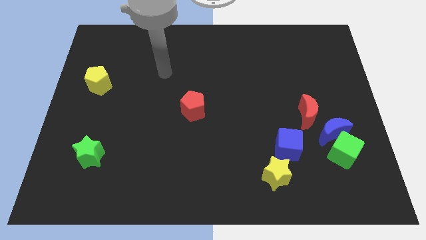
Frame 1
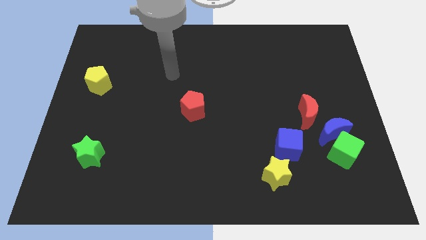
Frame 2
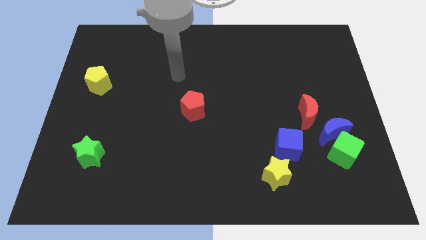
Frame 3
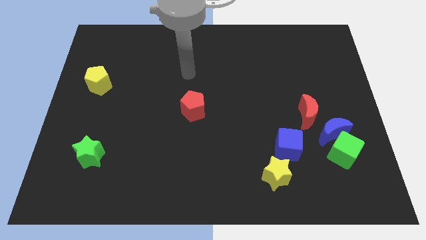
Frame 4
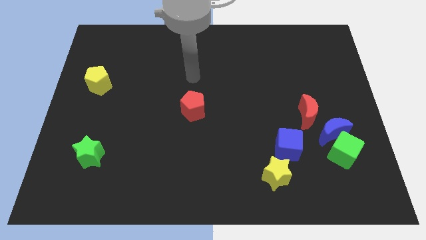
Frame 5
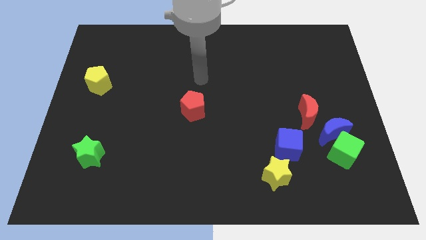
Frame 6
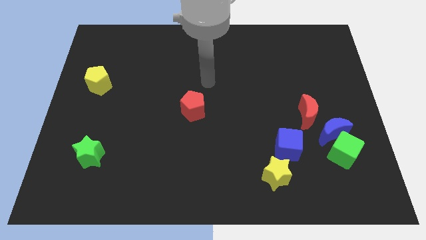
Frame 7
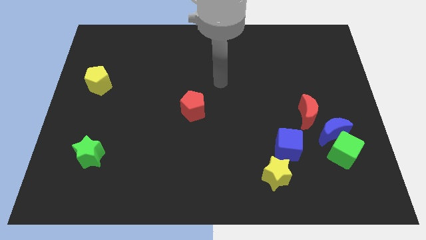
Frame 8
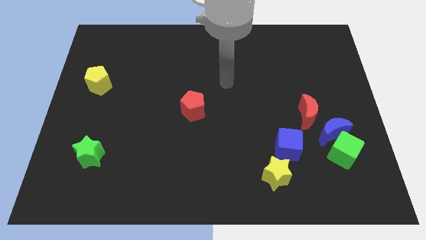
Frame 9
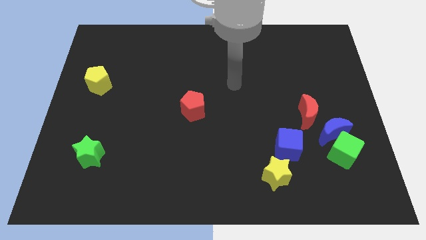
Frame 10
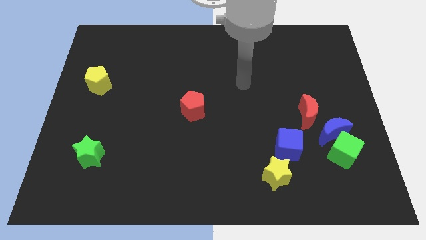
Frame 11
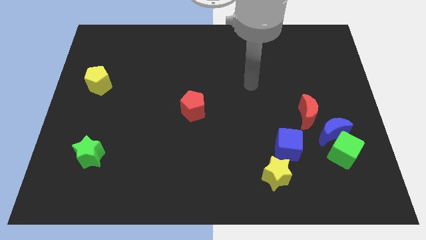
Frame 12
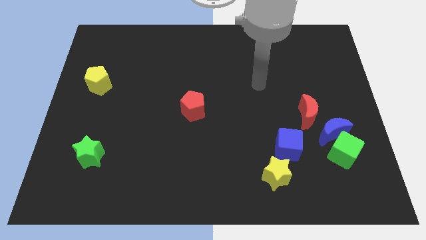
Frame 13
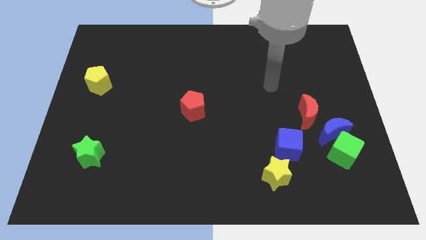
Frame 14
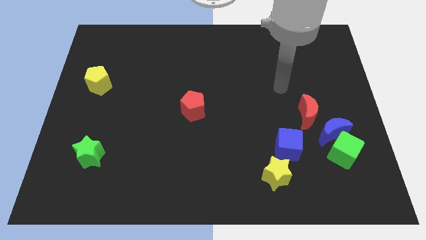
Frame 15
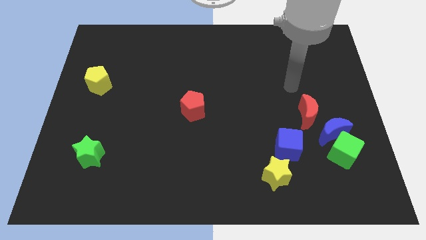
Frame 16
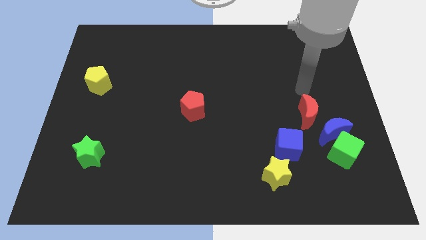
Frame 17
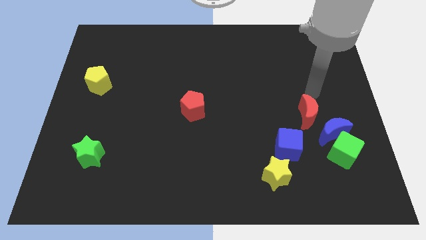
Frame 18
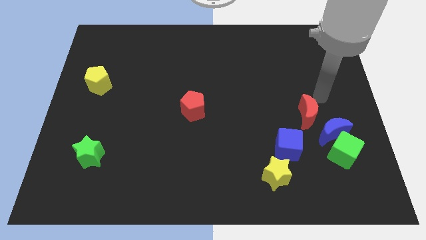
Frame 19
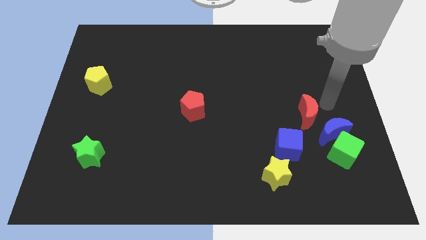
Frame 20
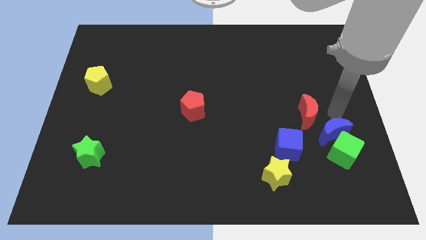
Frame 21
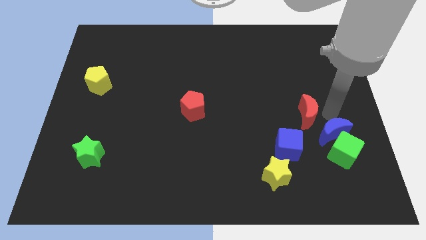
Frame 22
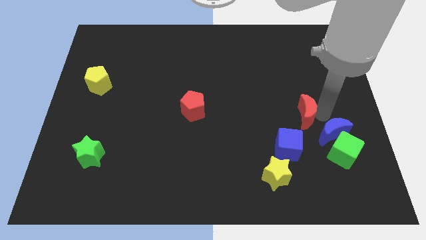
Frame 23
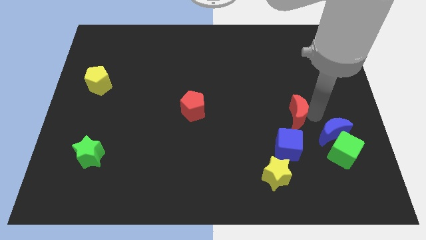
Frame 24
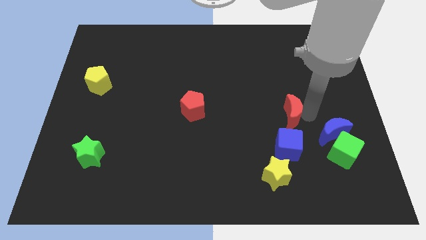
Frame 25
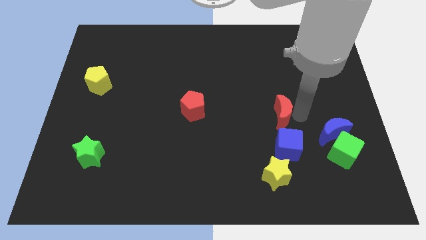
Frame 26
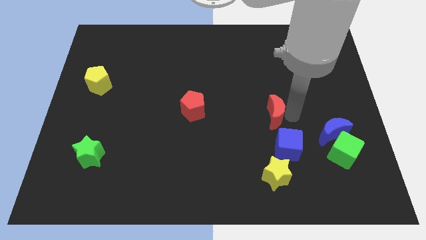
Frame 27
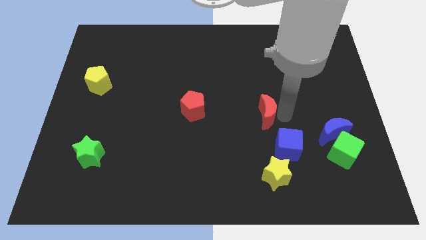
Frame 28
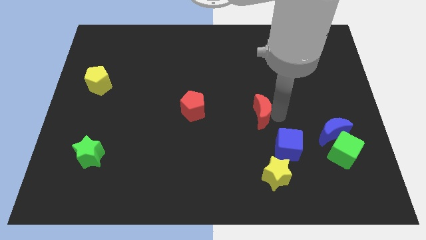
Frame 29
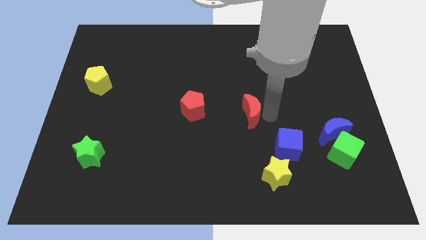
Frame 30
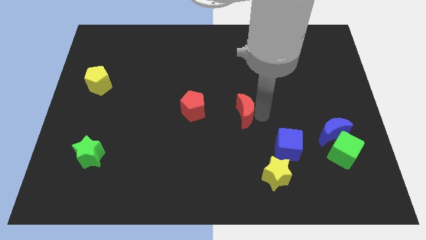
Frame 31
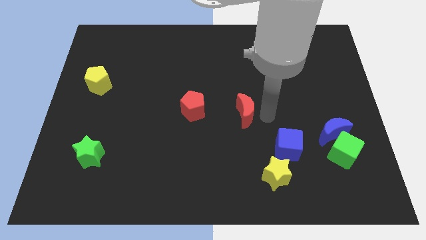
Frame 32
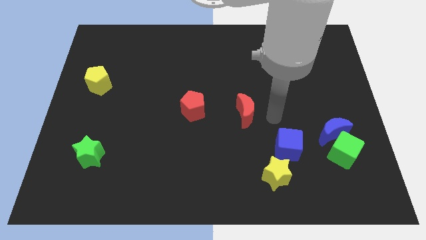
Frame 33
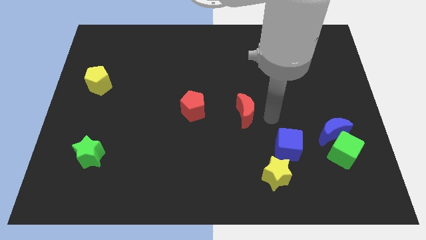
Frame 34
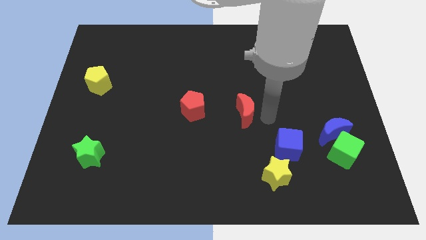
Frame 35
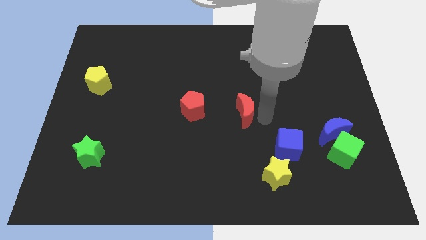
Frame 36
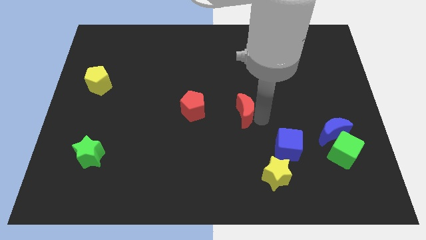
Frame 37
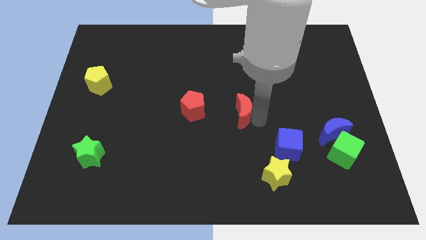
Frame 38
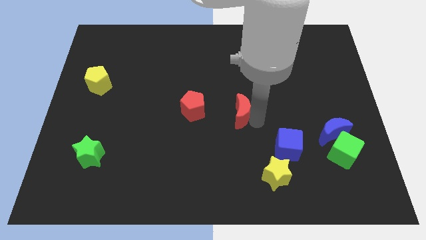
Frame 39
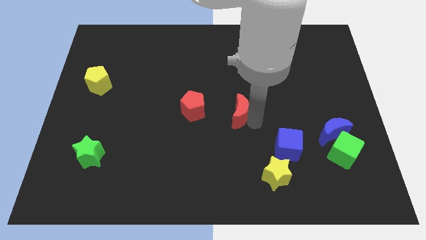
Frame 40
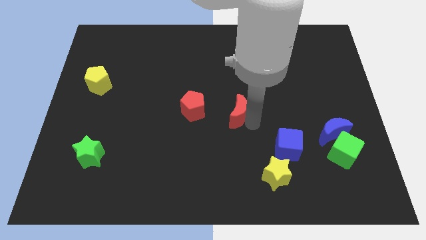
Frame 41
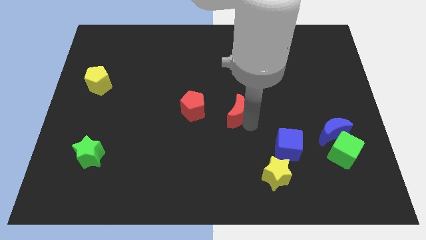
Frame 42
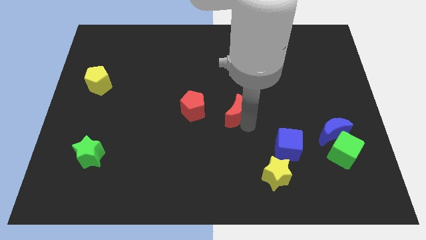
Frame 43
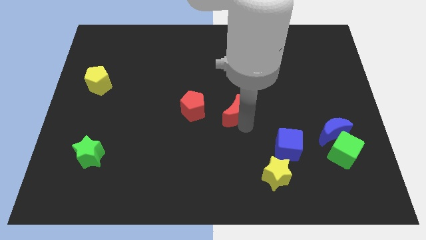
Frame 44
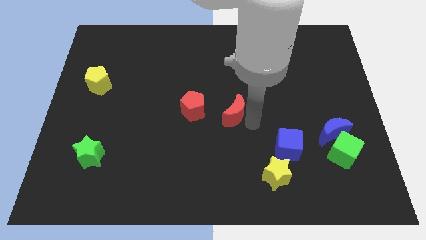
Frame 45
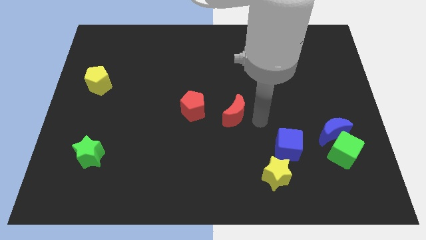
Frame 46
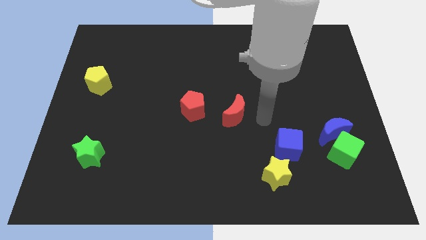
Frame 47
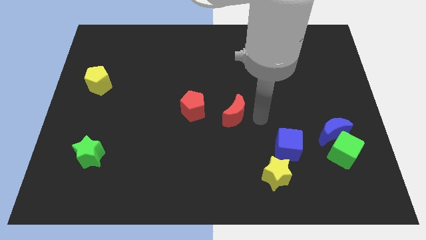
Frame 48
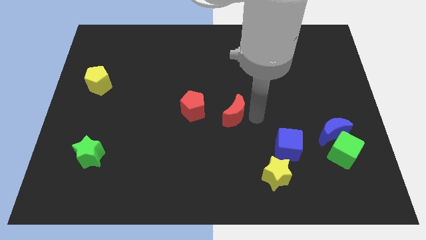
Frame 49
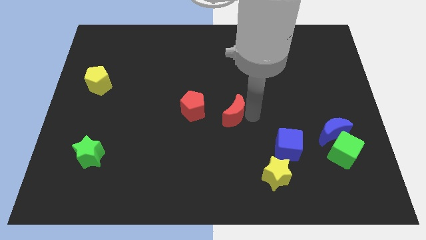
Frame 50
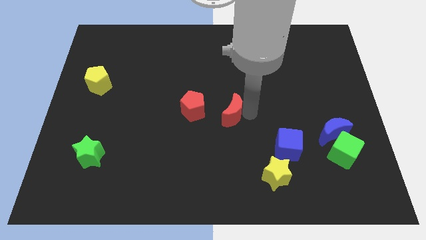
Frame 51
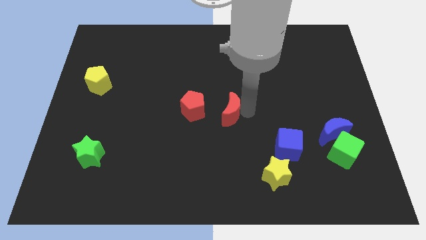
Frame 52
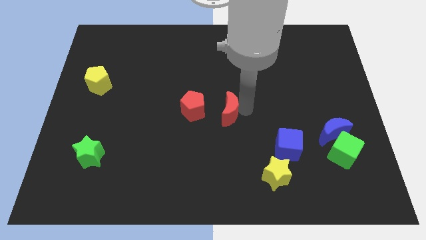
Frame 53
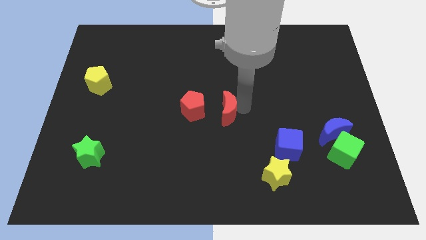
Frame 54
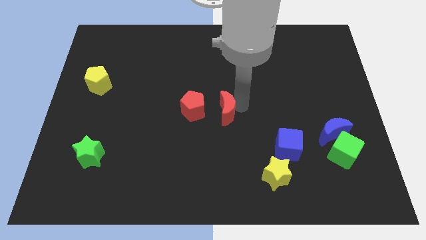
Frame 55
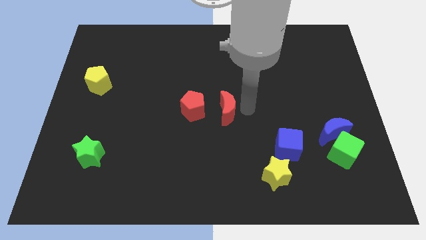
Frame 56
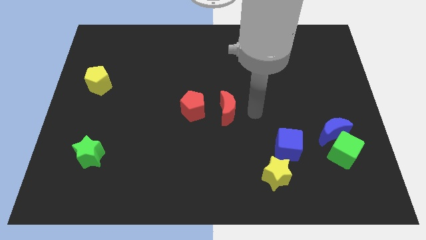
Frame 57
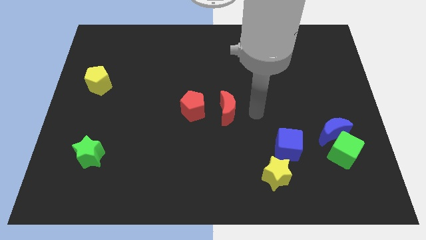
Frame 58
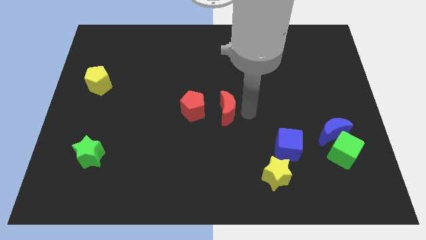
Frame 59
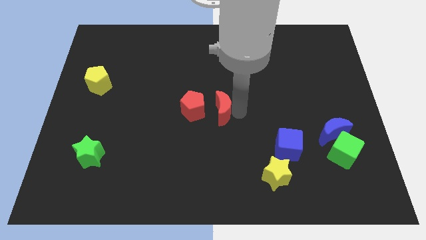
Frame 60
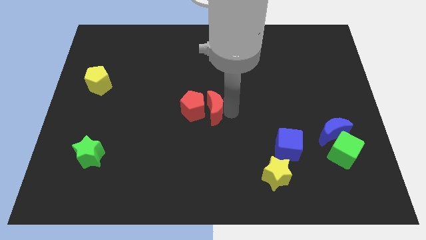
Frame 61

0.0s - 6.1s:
move the red moon next to the red pentagon

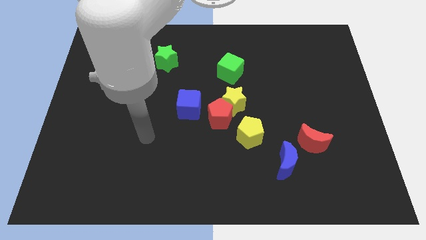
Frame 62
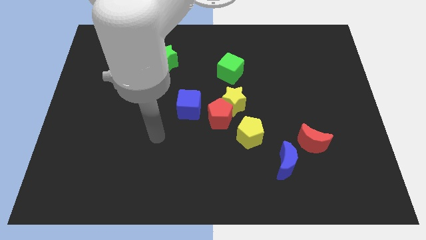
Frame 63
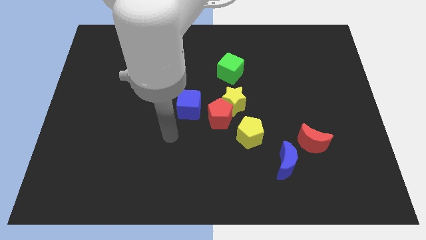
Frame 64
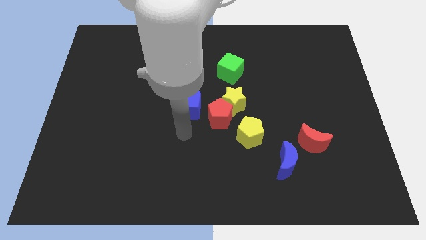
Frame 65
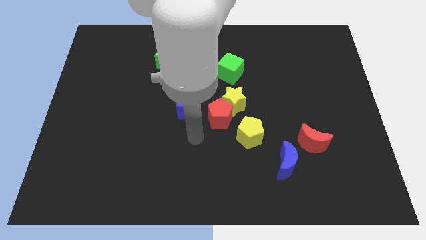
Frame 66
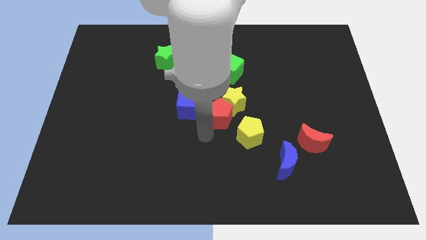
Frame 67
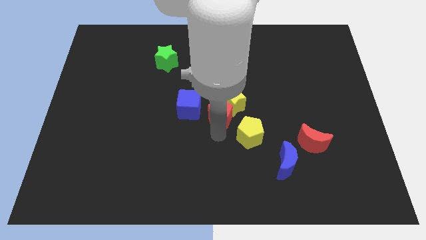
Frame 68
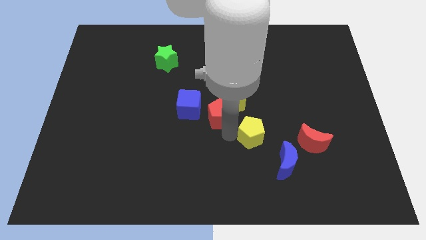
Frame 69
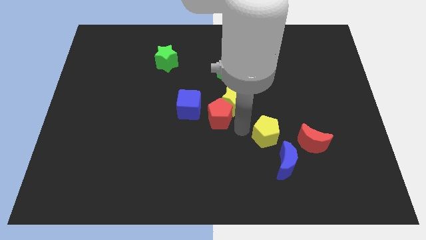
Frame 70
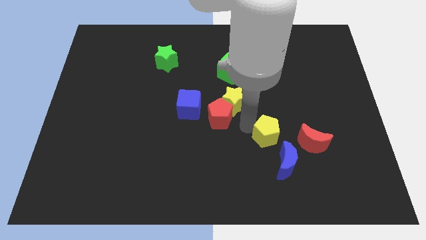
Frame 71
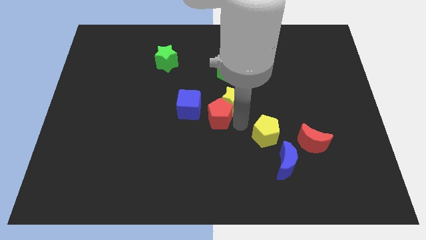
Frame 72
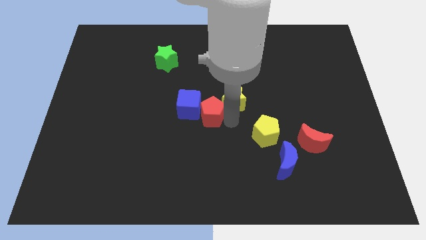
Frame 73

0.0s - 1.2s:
push the red pentagon close to the blue cube
